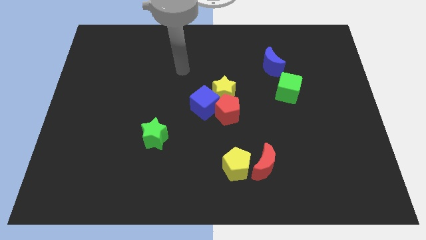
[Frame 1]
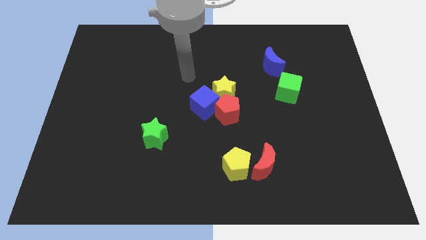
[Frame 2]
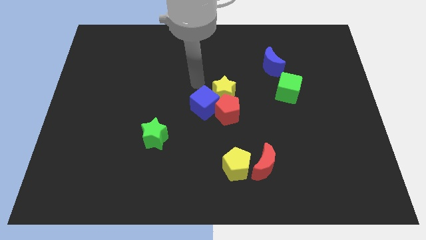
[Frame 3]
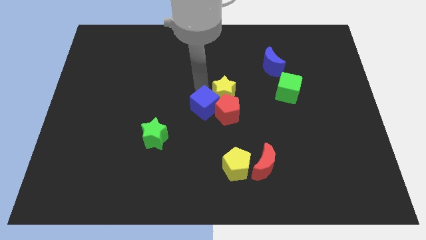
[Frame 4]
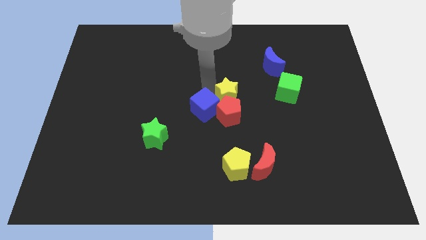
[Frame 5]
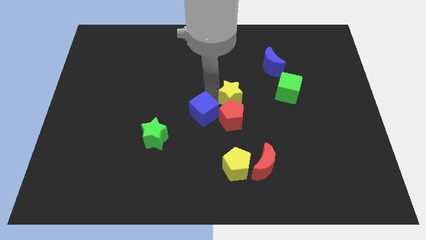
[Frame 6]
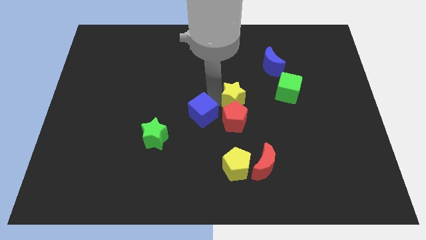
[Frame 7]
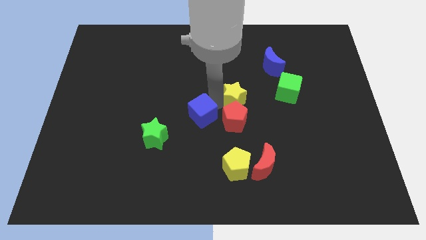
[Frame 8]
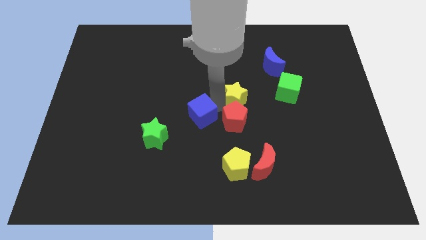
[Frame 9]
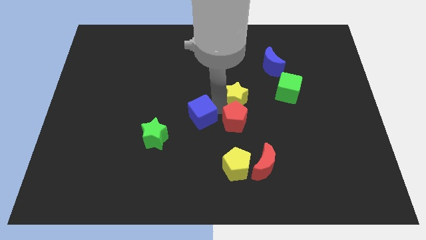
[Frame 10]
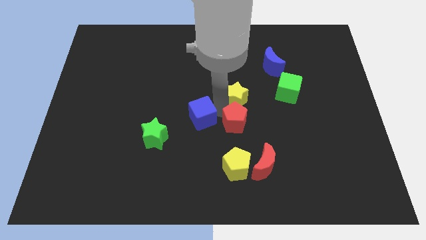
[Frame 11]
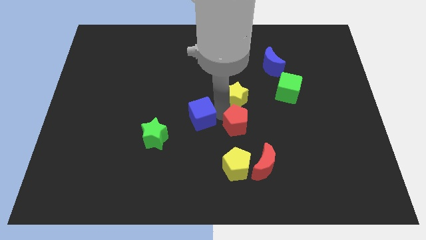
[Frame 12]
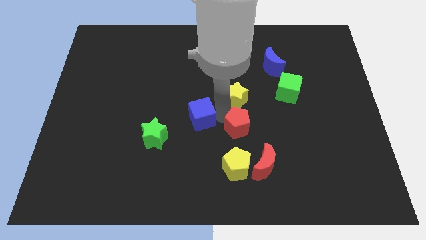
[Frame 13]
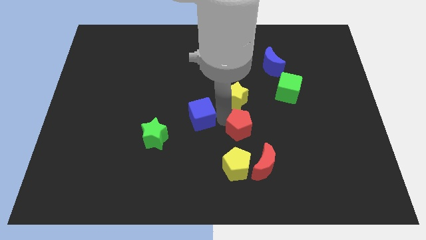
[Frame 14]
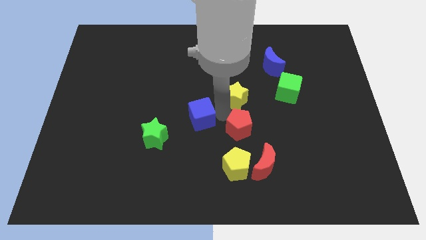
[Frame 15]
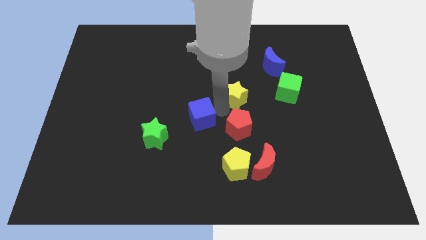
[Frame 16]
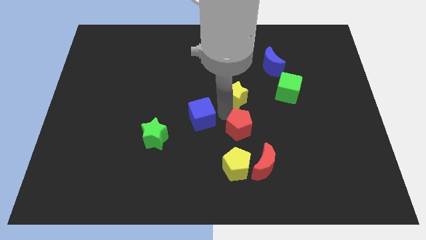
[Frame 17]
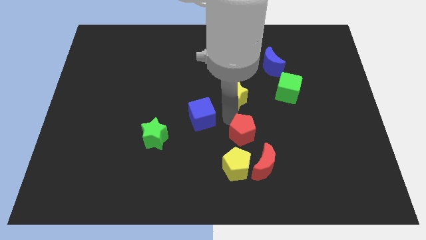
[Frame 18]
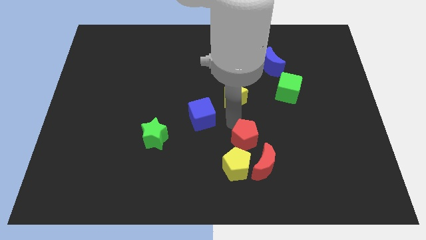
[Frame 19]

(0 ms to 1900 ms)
pull the red pentagon apart from the blue cube and yellow star

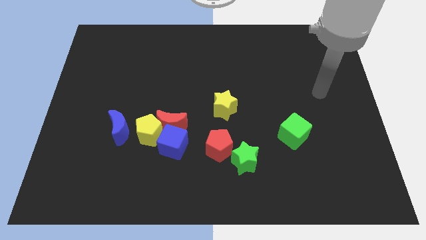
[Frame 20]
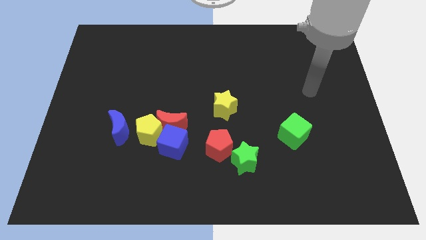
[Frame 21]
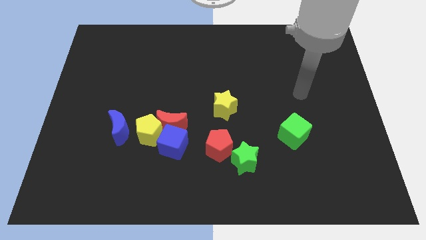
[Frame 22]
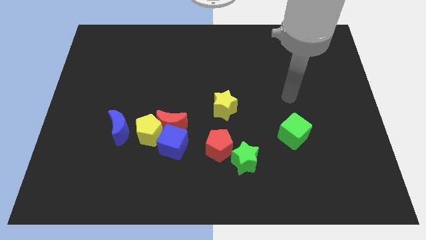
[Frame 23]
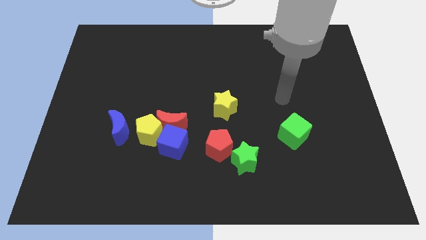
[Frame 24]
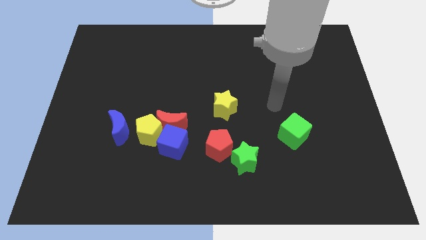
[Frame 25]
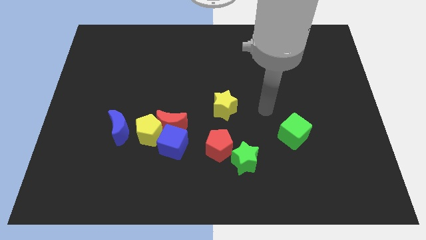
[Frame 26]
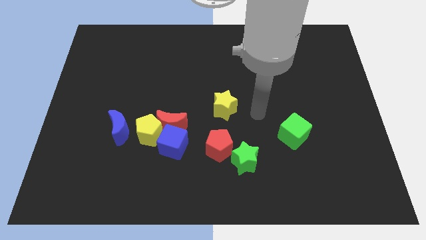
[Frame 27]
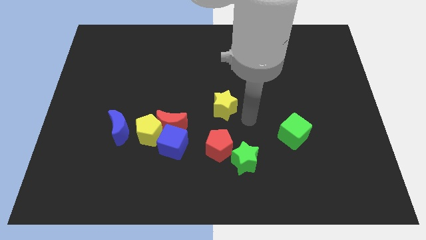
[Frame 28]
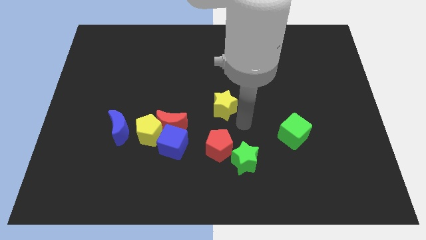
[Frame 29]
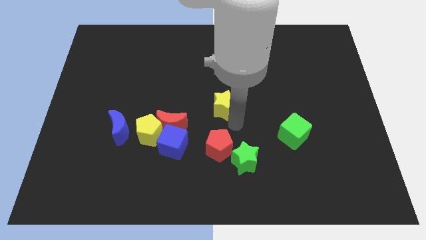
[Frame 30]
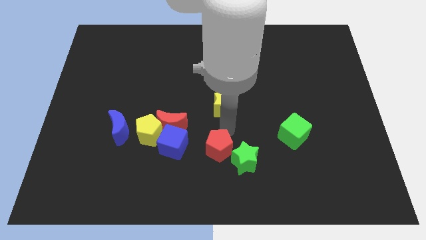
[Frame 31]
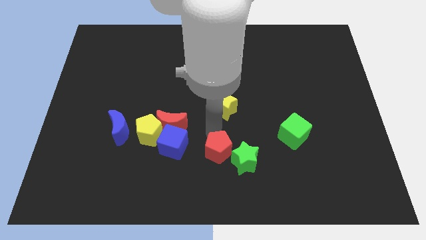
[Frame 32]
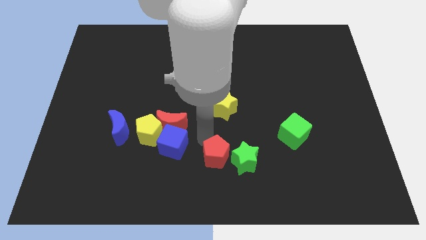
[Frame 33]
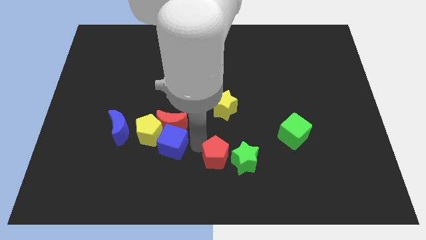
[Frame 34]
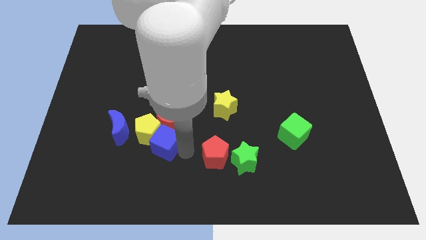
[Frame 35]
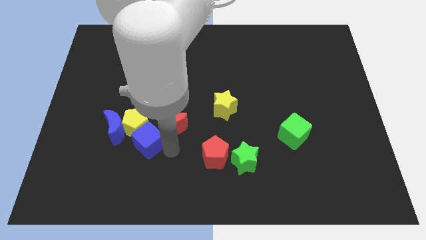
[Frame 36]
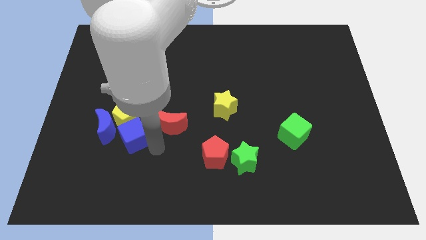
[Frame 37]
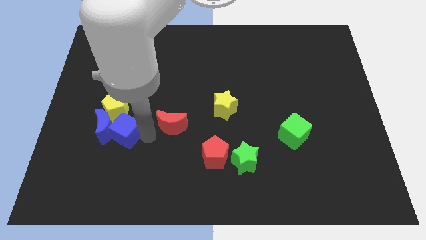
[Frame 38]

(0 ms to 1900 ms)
separate the red moon from the yellow pentagon and blue cube

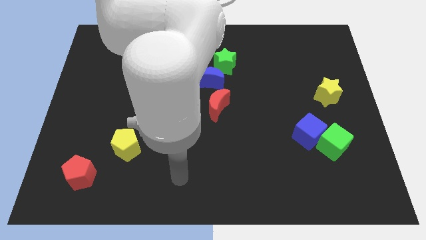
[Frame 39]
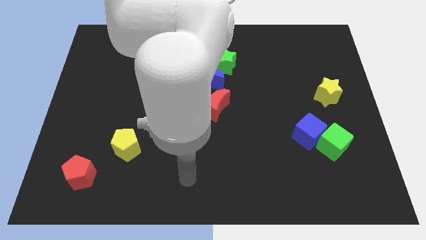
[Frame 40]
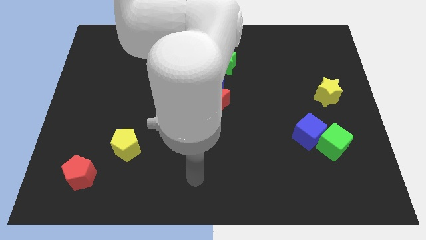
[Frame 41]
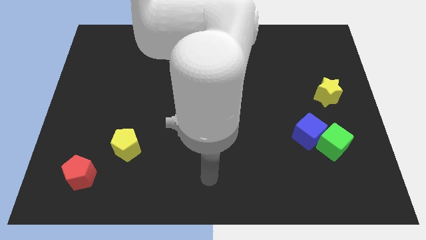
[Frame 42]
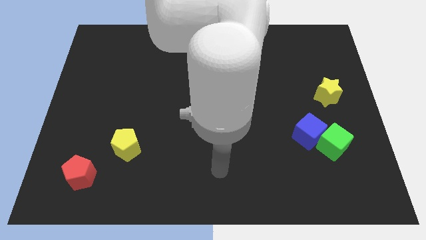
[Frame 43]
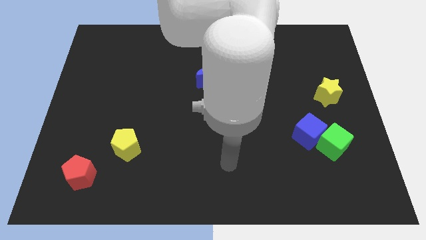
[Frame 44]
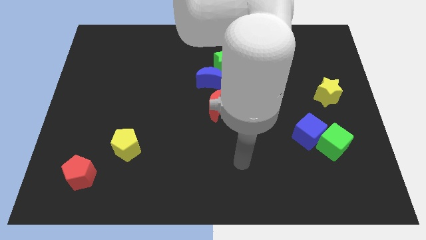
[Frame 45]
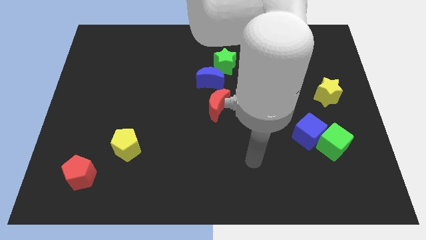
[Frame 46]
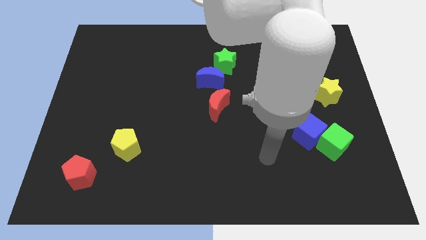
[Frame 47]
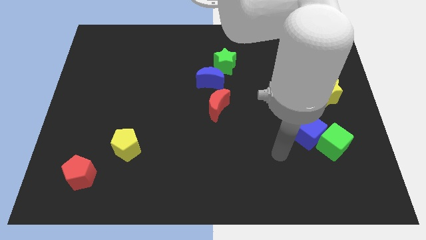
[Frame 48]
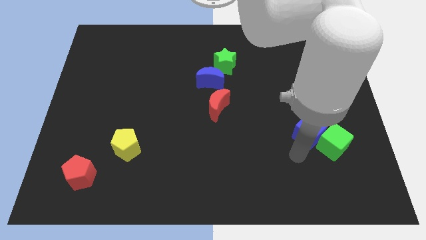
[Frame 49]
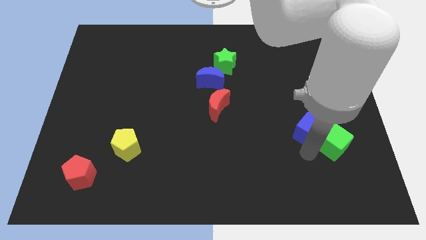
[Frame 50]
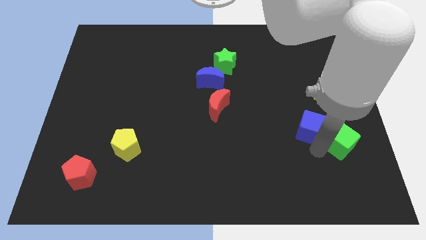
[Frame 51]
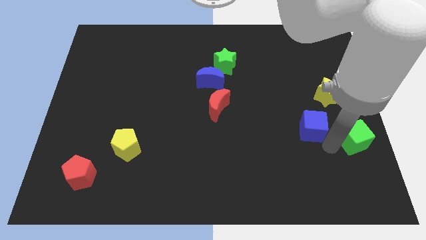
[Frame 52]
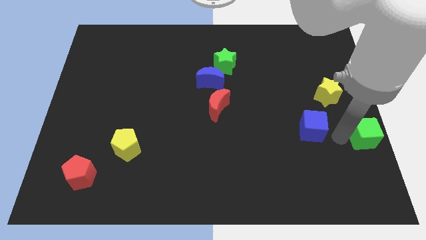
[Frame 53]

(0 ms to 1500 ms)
move the blue cube away from the green cube

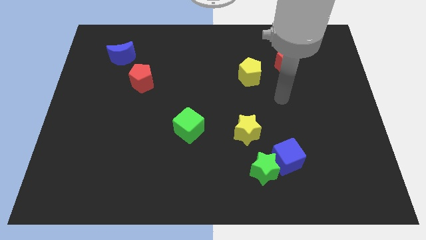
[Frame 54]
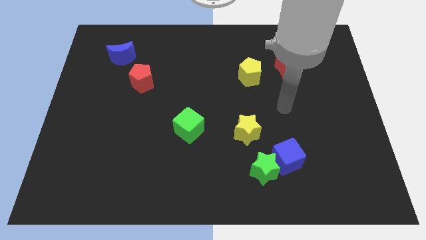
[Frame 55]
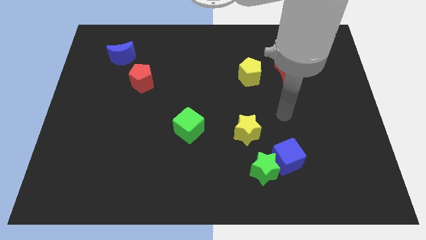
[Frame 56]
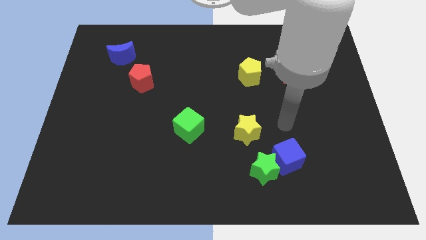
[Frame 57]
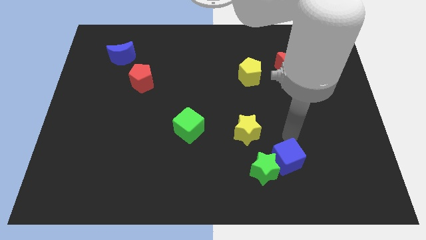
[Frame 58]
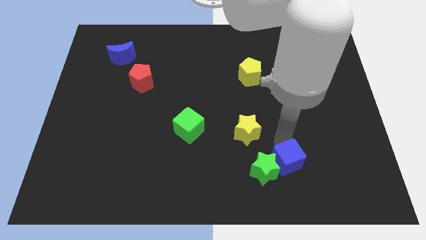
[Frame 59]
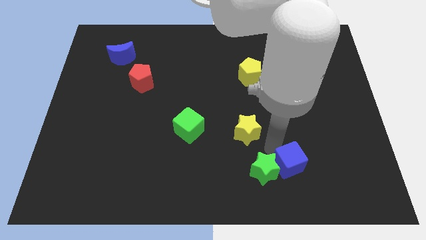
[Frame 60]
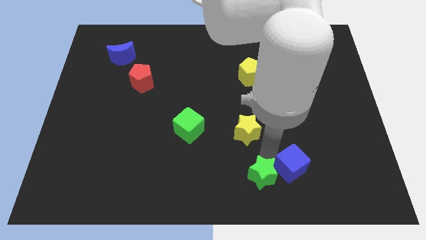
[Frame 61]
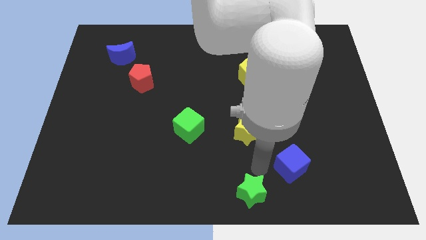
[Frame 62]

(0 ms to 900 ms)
separate the blue cube from the green star

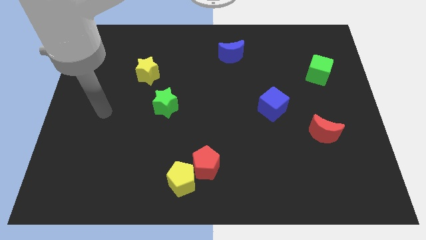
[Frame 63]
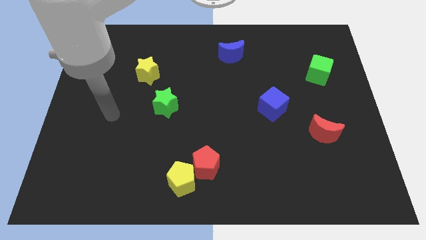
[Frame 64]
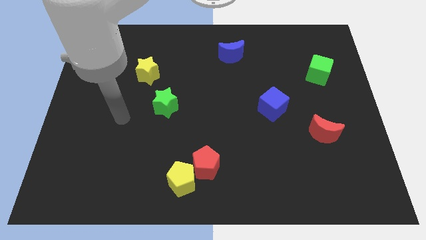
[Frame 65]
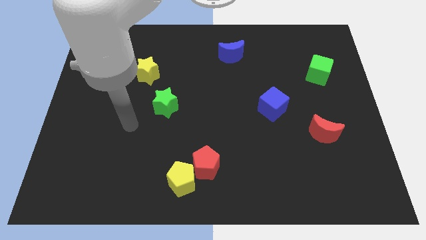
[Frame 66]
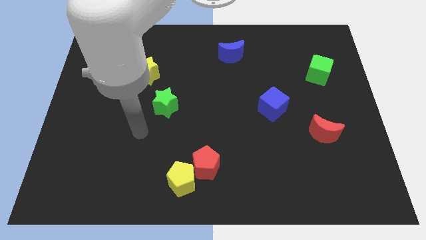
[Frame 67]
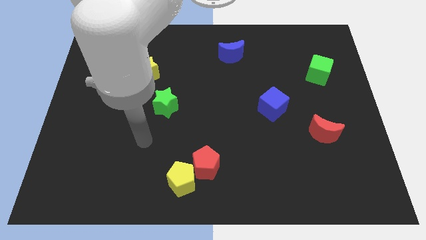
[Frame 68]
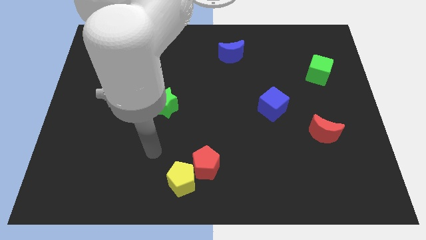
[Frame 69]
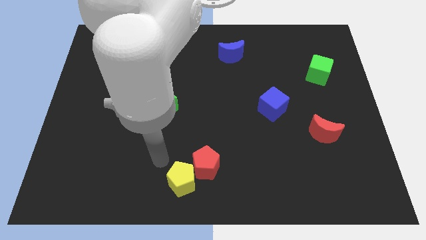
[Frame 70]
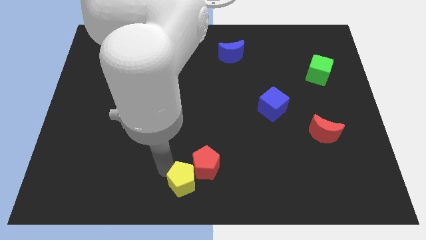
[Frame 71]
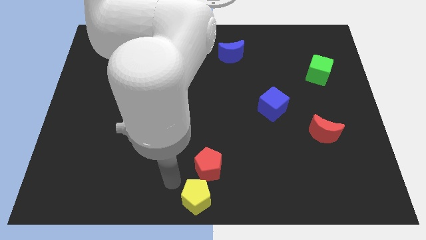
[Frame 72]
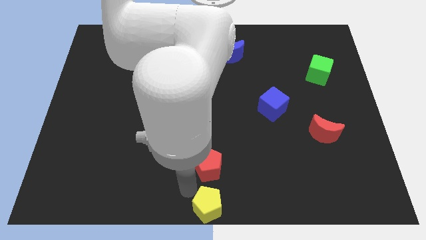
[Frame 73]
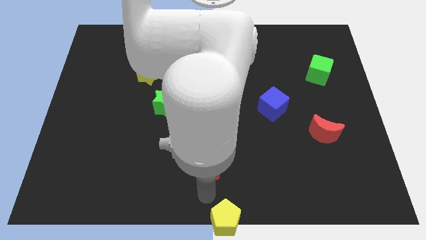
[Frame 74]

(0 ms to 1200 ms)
pull the red pentagon apart from the yellow pentagon

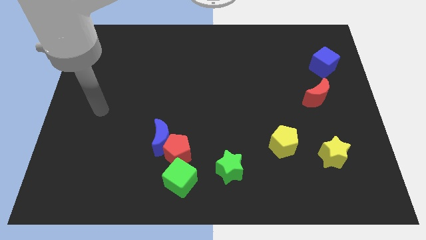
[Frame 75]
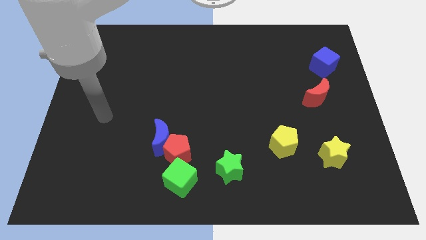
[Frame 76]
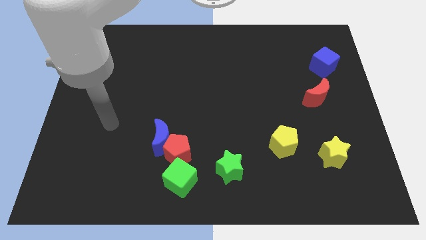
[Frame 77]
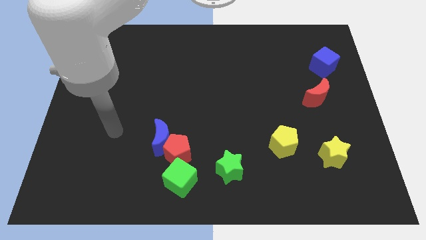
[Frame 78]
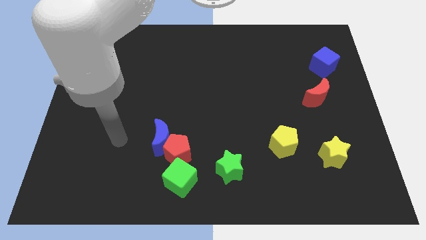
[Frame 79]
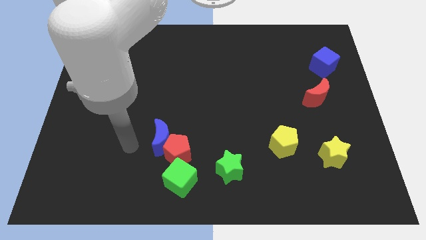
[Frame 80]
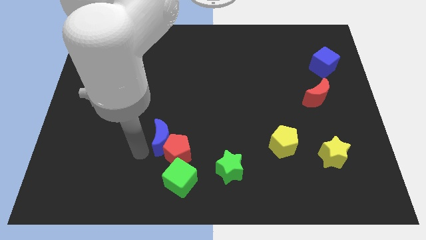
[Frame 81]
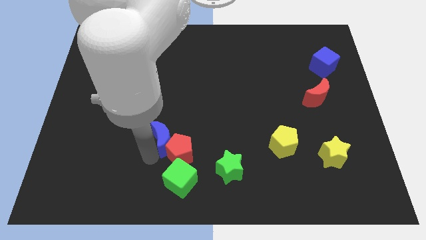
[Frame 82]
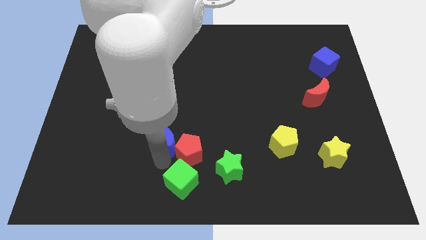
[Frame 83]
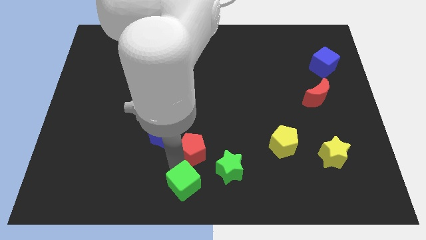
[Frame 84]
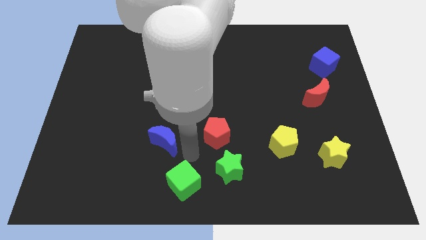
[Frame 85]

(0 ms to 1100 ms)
separate the blue moon from the red pentagon

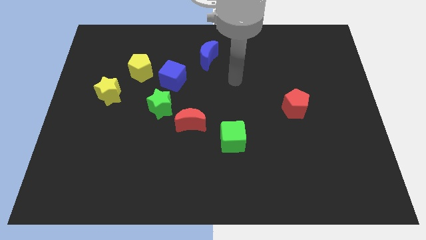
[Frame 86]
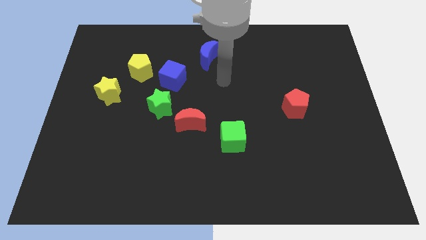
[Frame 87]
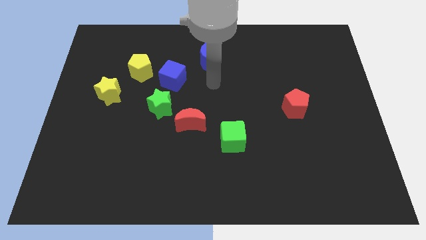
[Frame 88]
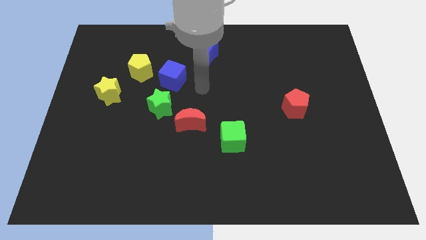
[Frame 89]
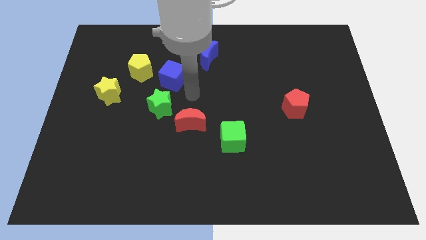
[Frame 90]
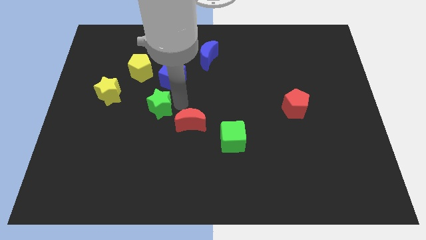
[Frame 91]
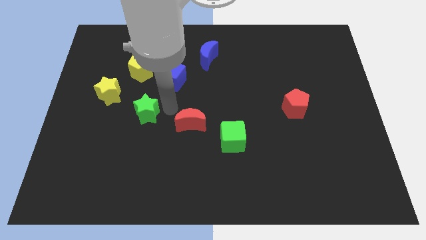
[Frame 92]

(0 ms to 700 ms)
separate the red moon from the green star

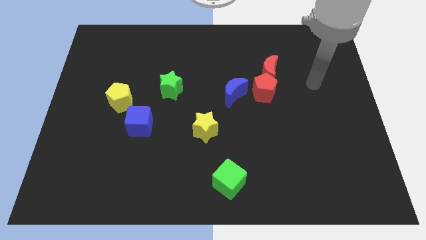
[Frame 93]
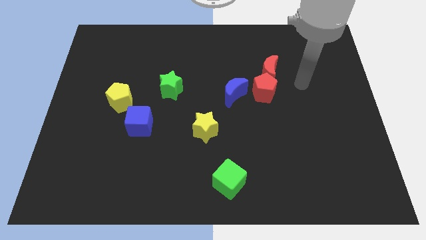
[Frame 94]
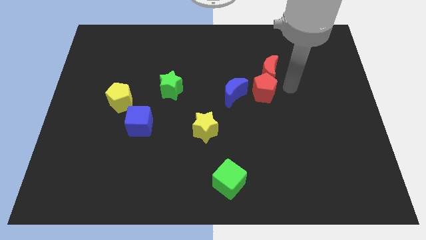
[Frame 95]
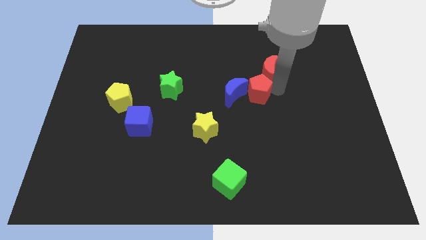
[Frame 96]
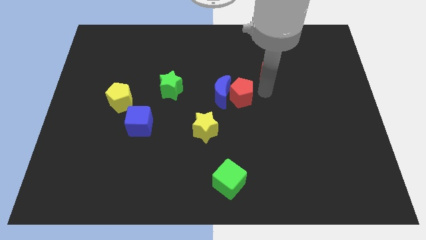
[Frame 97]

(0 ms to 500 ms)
separate the red moon from the red pentagon
